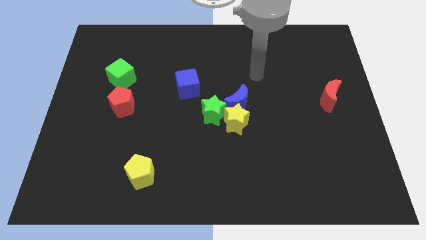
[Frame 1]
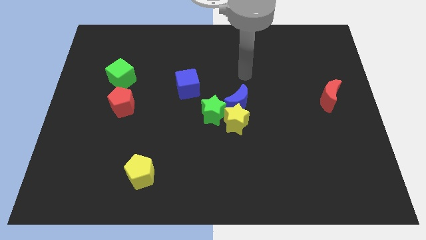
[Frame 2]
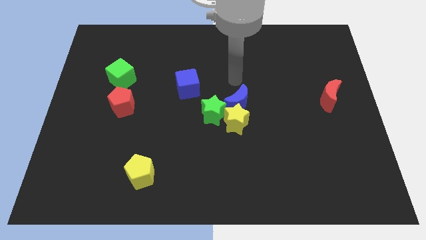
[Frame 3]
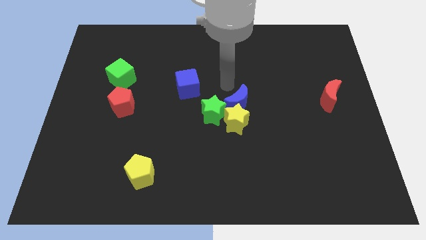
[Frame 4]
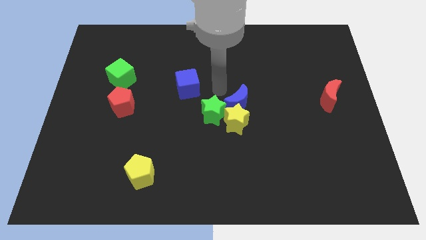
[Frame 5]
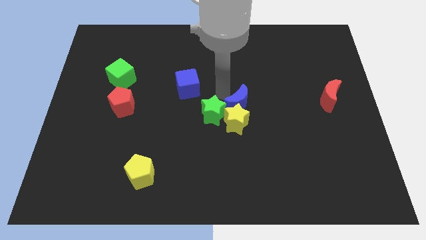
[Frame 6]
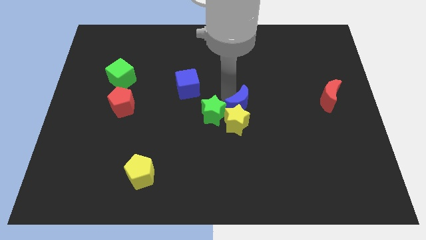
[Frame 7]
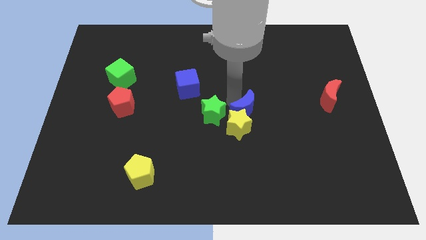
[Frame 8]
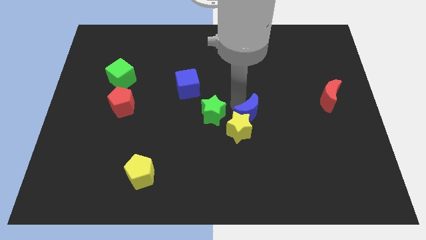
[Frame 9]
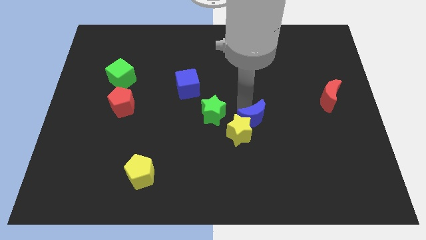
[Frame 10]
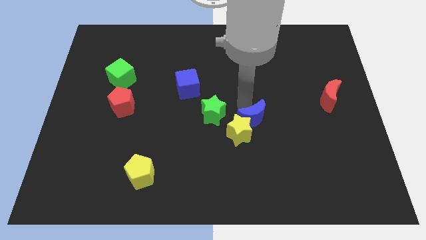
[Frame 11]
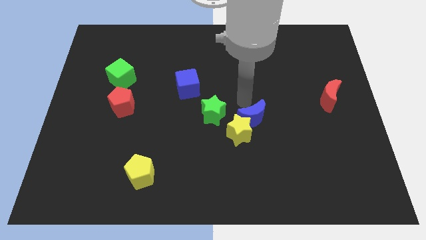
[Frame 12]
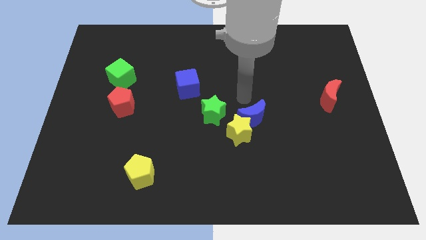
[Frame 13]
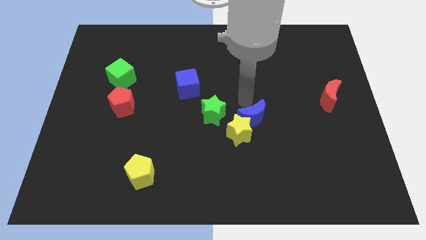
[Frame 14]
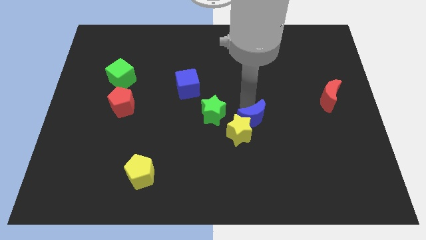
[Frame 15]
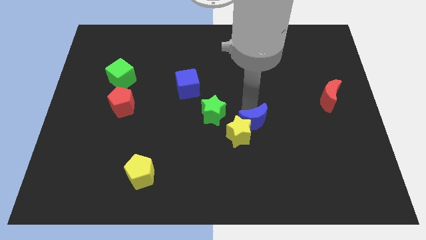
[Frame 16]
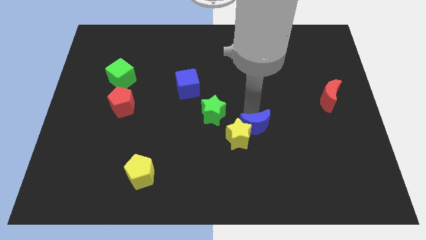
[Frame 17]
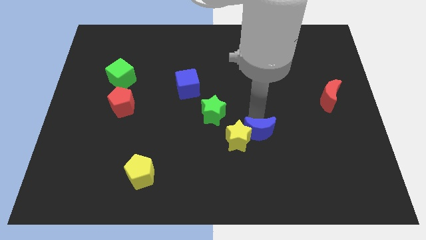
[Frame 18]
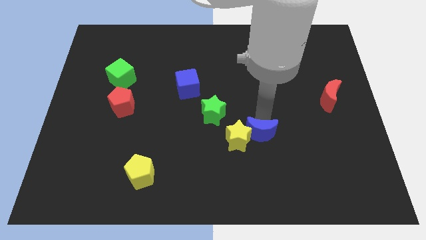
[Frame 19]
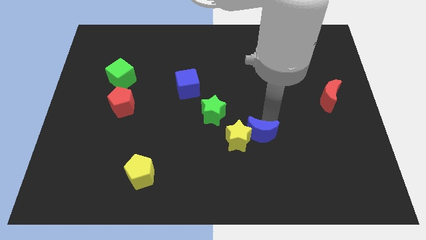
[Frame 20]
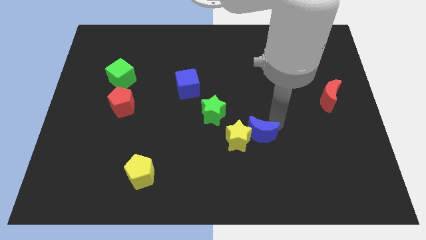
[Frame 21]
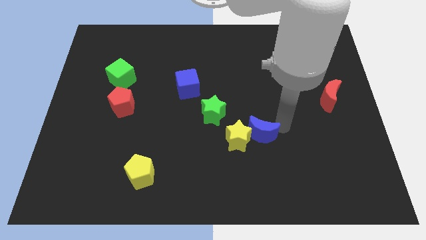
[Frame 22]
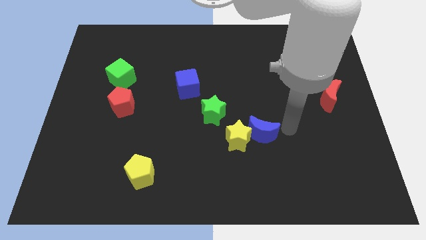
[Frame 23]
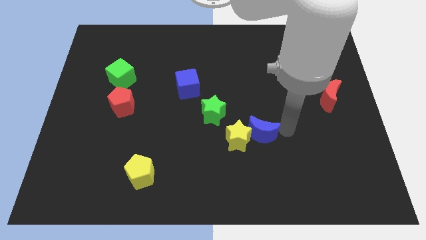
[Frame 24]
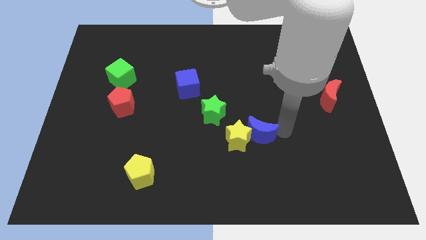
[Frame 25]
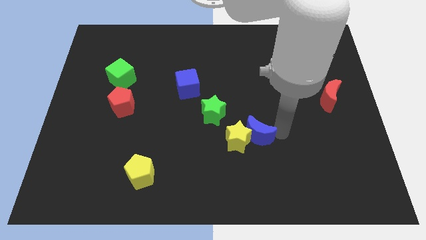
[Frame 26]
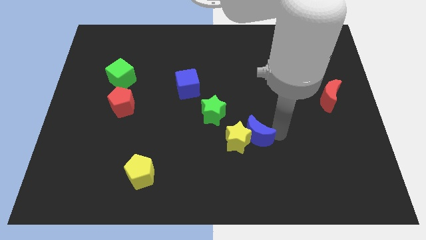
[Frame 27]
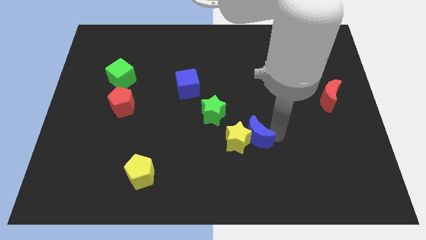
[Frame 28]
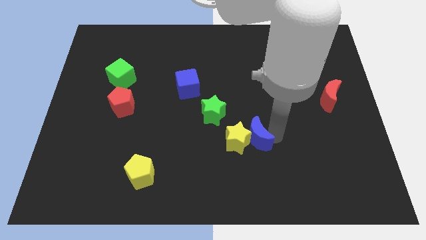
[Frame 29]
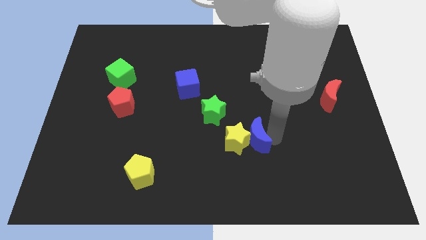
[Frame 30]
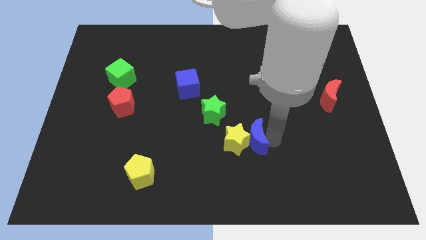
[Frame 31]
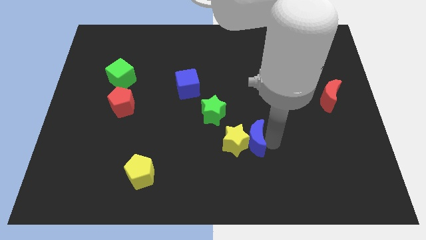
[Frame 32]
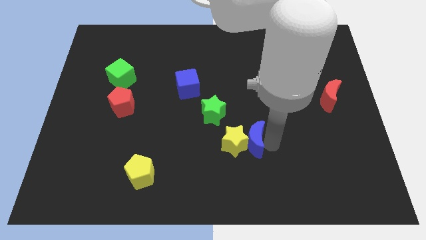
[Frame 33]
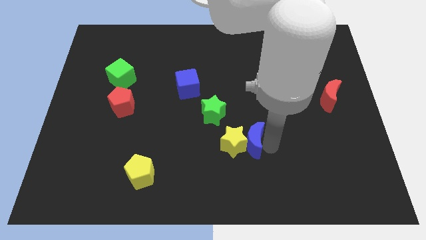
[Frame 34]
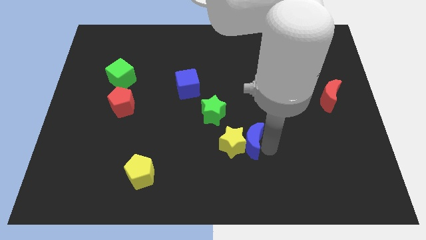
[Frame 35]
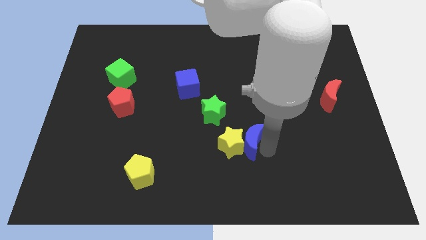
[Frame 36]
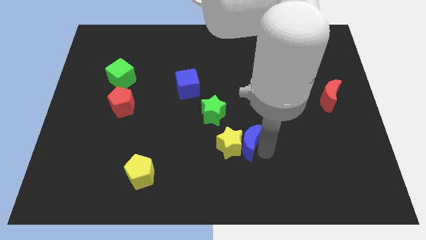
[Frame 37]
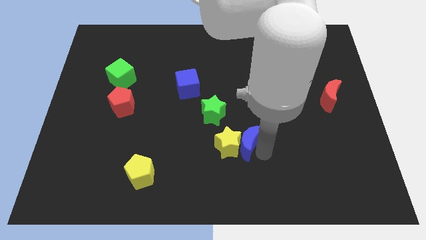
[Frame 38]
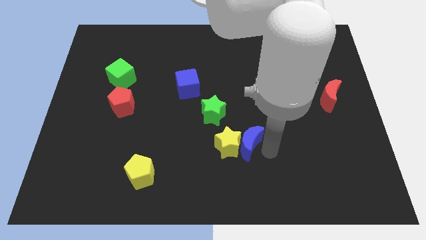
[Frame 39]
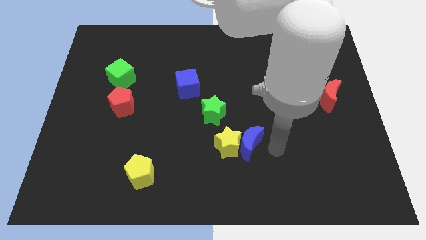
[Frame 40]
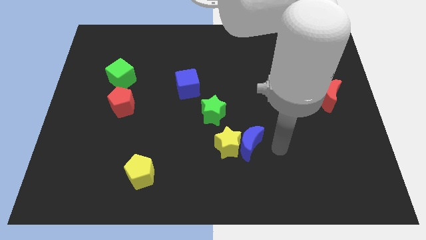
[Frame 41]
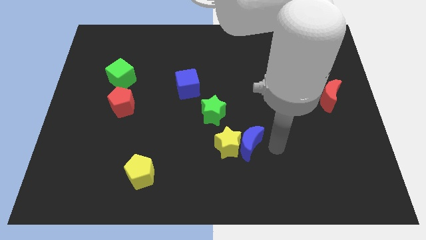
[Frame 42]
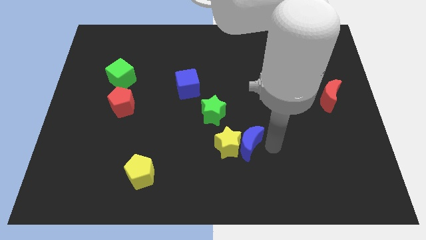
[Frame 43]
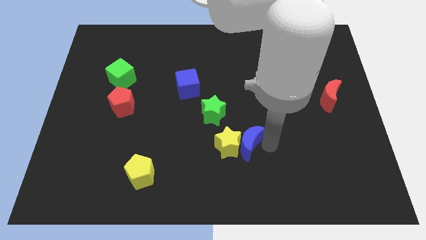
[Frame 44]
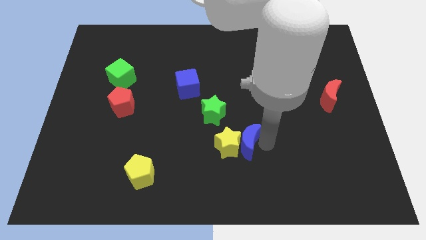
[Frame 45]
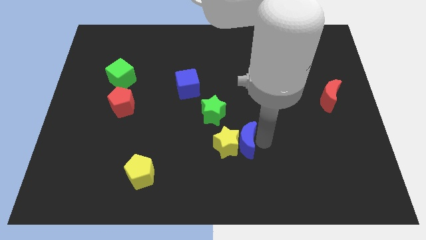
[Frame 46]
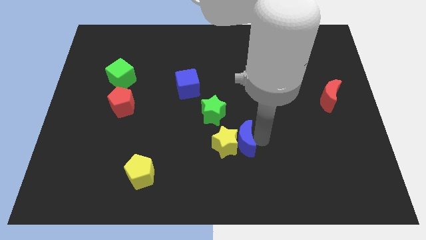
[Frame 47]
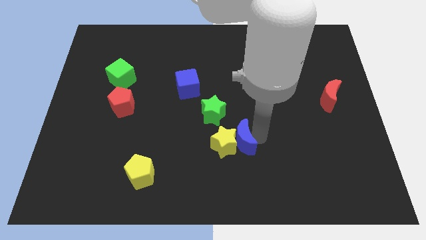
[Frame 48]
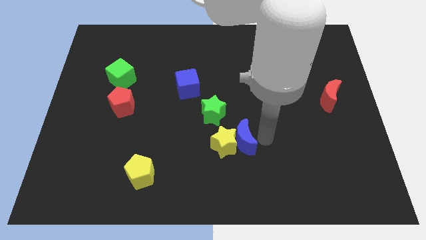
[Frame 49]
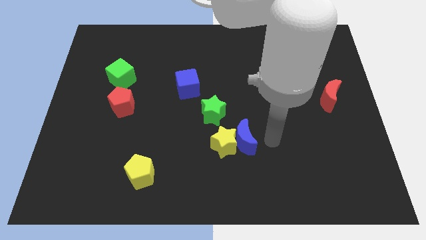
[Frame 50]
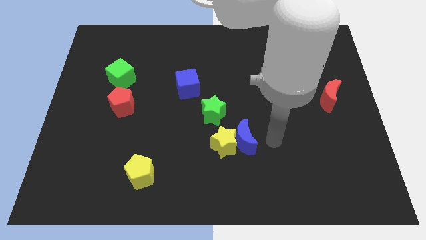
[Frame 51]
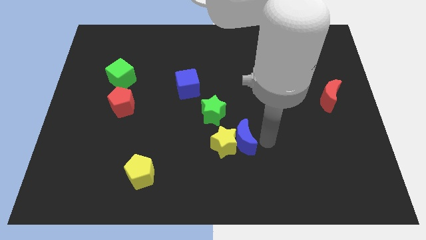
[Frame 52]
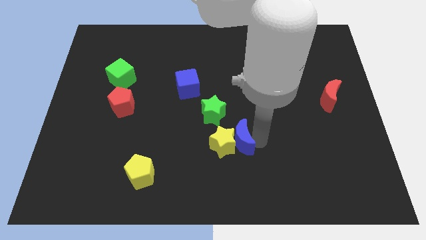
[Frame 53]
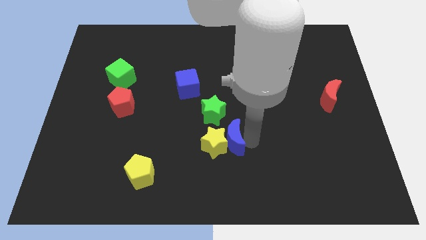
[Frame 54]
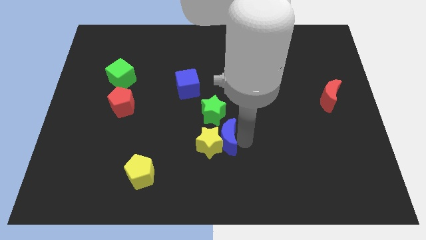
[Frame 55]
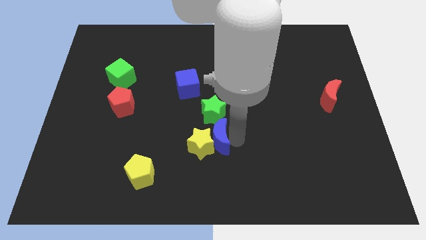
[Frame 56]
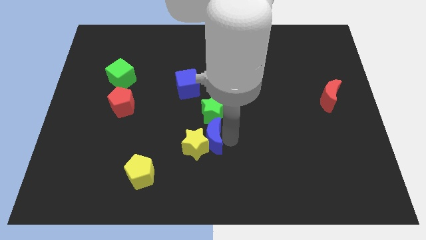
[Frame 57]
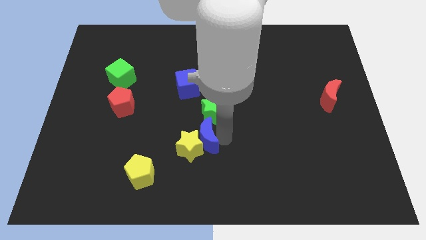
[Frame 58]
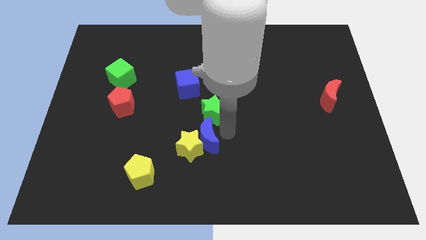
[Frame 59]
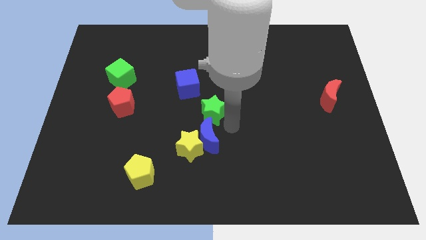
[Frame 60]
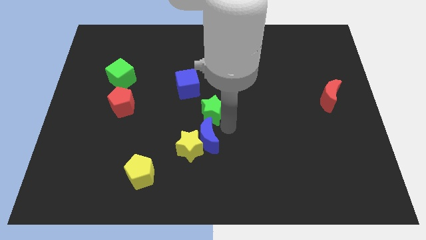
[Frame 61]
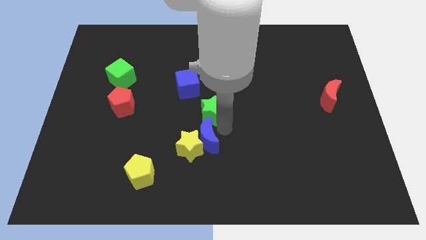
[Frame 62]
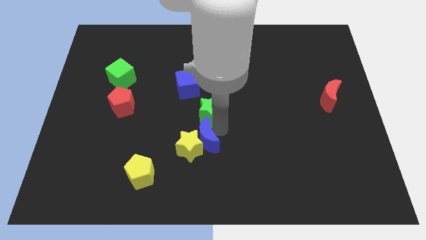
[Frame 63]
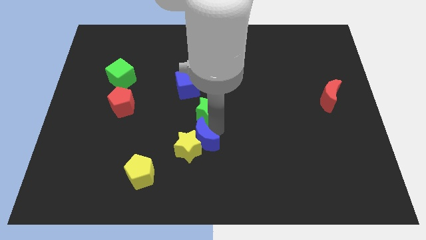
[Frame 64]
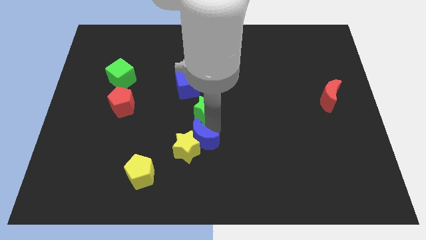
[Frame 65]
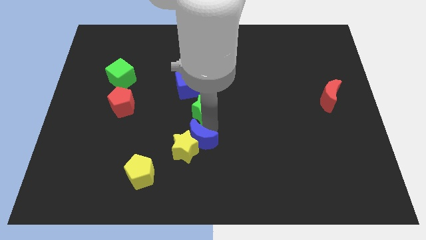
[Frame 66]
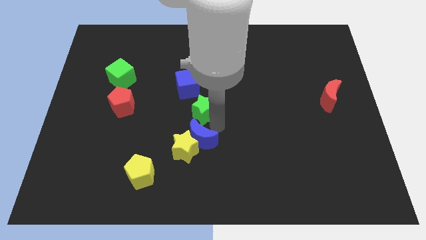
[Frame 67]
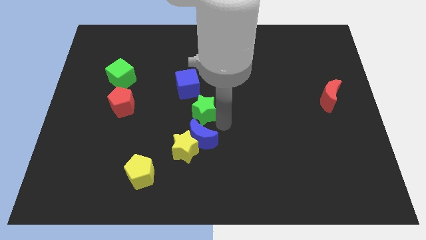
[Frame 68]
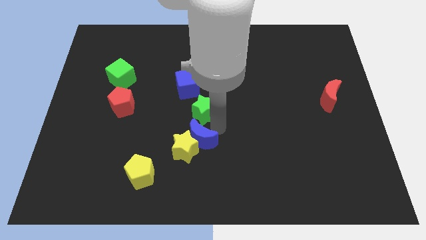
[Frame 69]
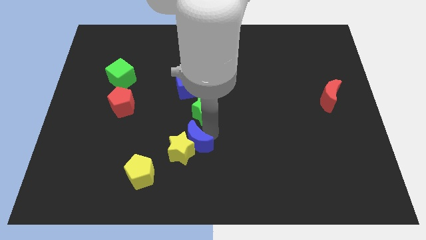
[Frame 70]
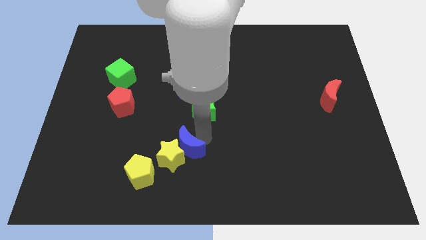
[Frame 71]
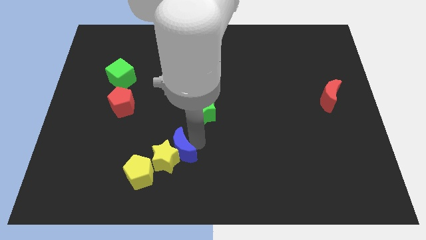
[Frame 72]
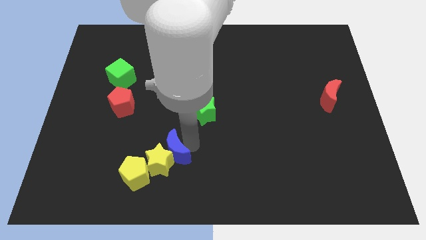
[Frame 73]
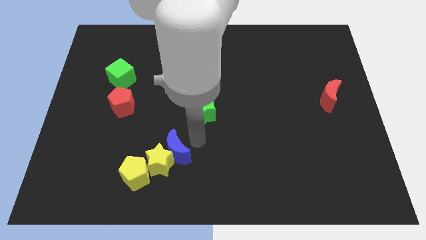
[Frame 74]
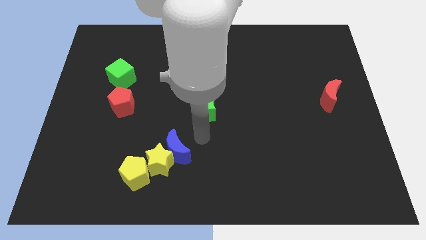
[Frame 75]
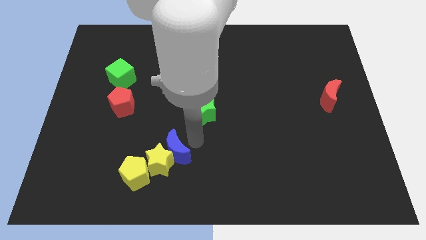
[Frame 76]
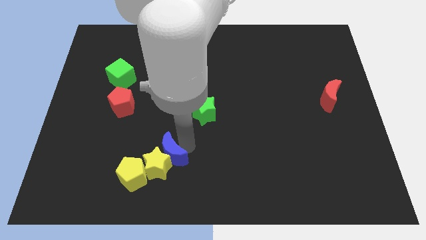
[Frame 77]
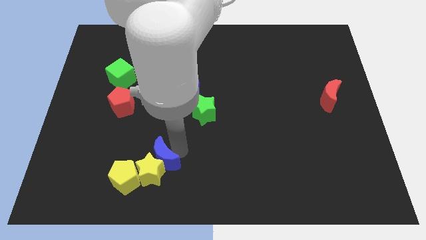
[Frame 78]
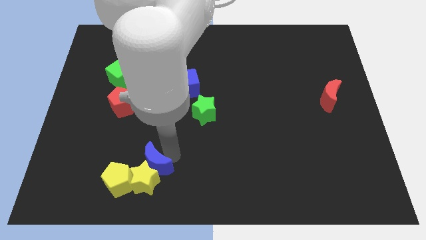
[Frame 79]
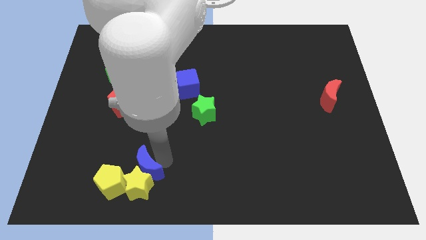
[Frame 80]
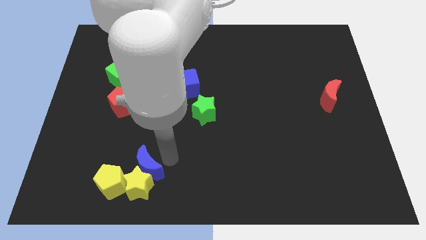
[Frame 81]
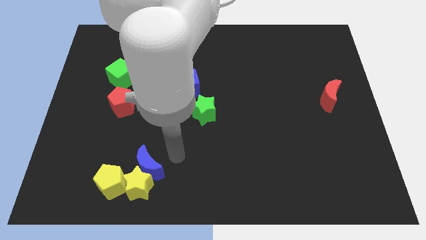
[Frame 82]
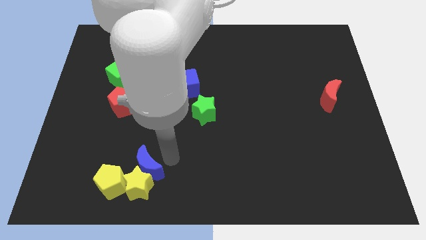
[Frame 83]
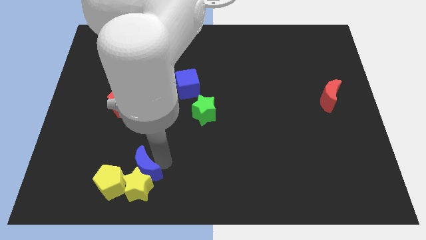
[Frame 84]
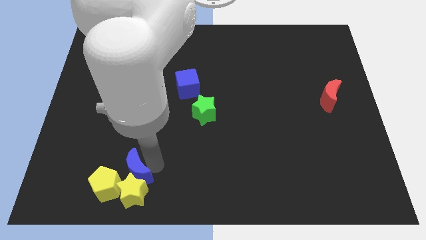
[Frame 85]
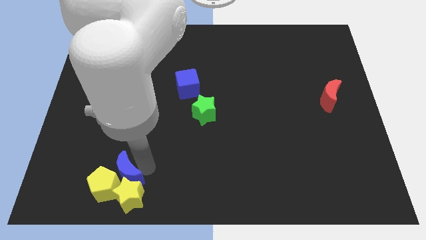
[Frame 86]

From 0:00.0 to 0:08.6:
push the blue moon towards the yellow pentagon
